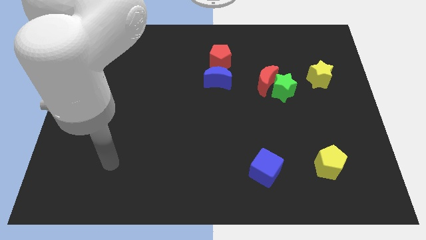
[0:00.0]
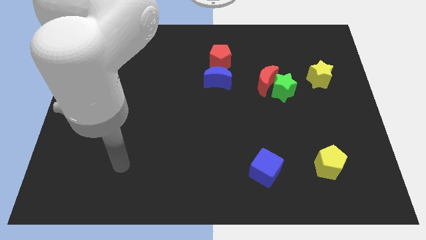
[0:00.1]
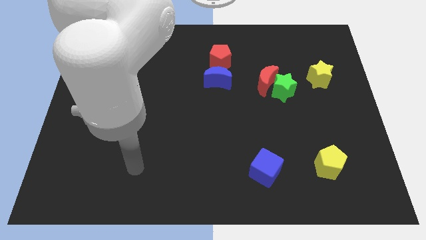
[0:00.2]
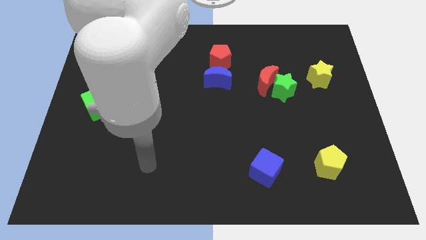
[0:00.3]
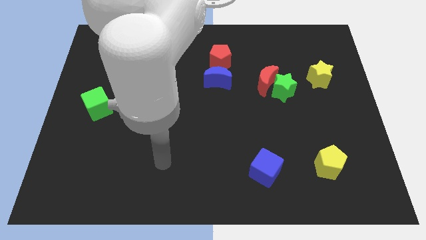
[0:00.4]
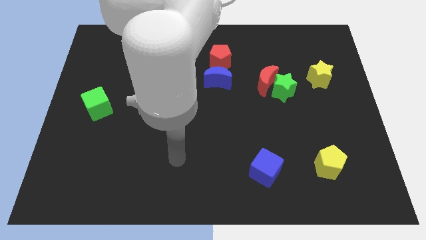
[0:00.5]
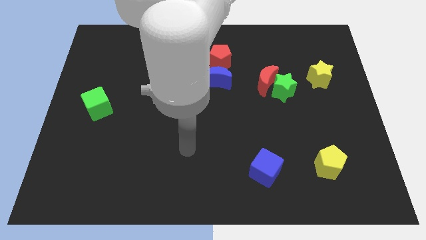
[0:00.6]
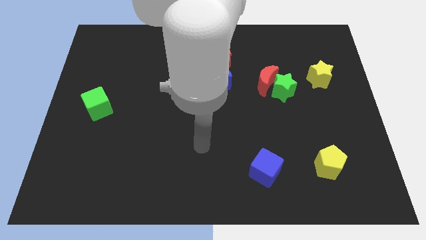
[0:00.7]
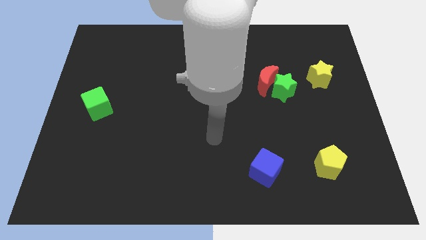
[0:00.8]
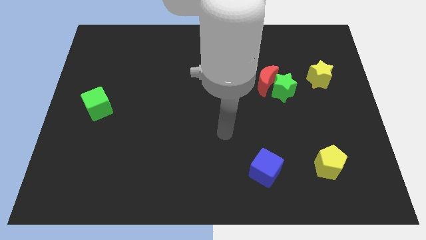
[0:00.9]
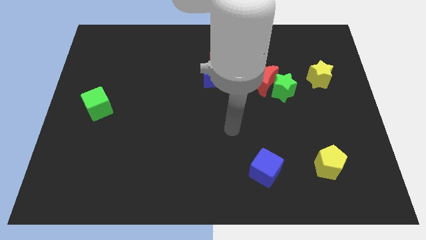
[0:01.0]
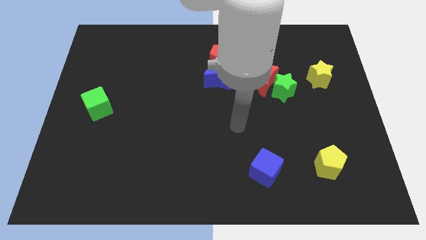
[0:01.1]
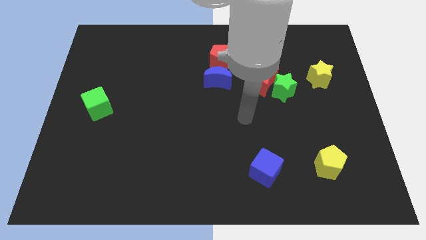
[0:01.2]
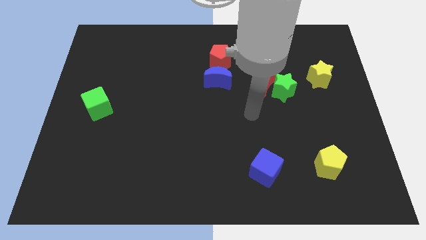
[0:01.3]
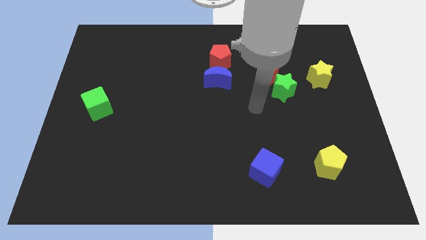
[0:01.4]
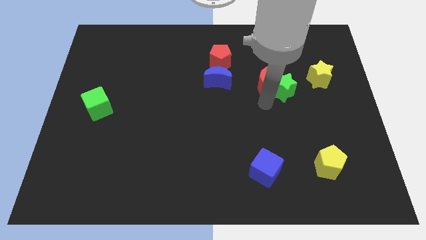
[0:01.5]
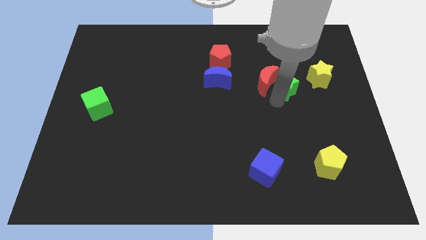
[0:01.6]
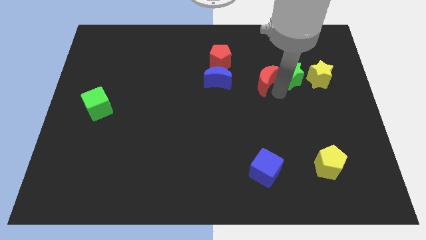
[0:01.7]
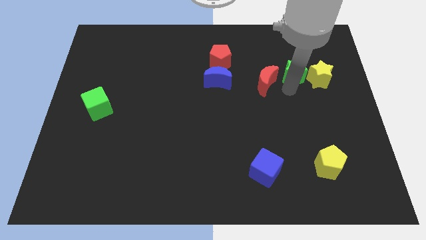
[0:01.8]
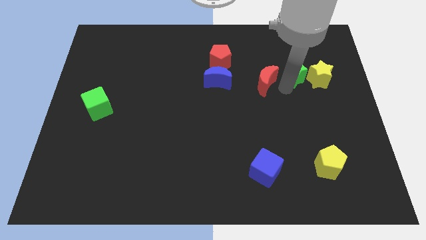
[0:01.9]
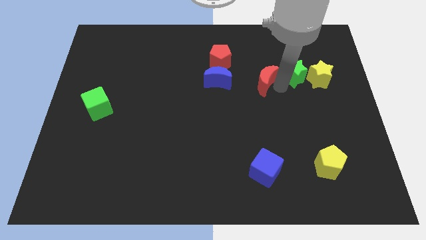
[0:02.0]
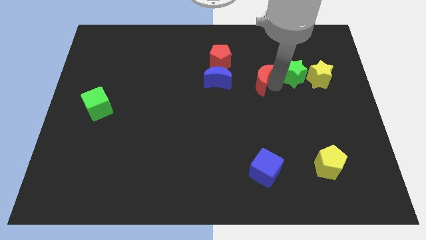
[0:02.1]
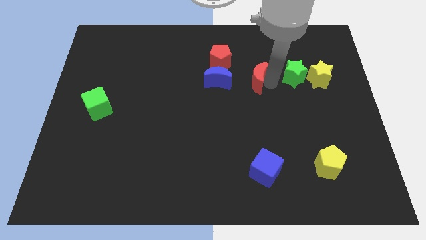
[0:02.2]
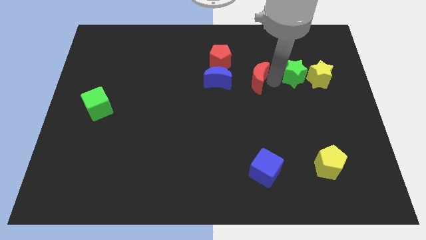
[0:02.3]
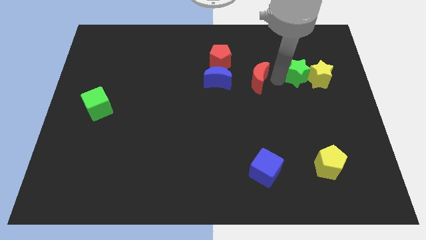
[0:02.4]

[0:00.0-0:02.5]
move the red moon away from the green star

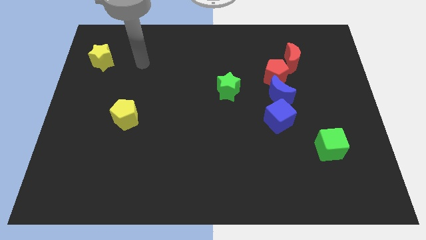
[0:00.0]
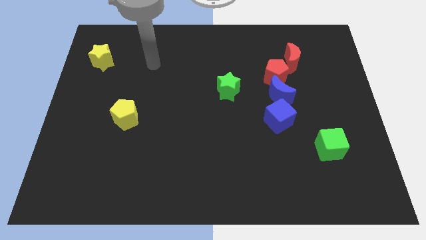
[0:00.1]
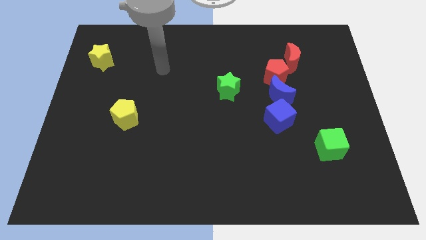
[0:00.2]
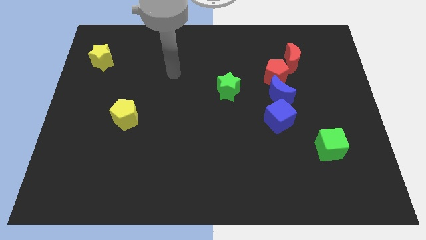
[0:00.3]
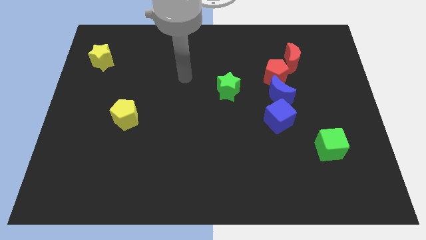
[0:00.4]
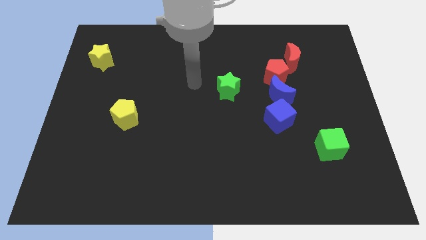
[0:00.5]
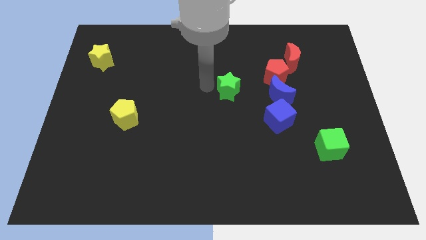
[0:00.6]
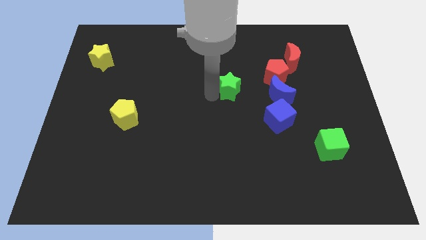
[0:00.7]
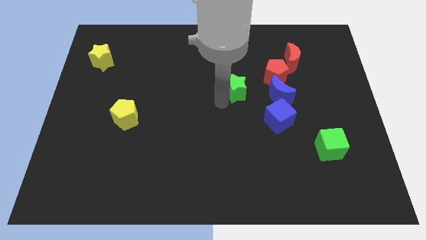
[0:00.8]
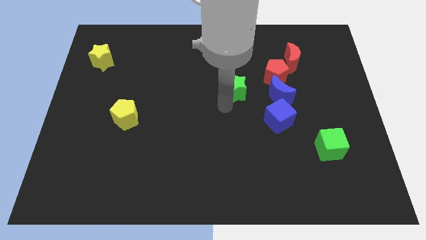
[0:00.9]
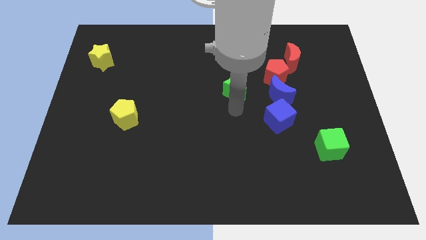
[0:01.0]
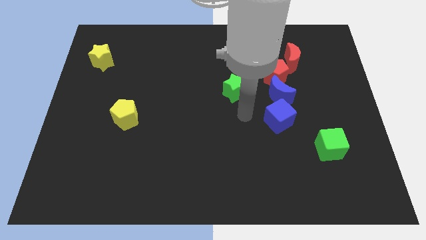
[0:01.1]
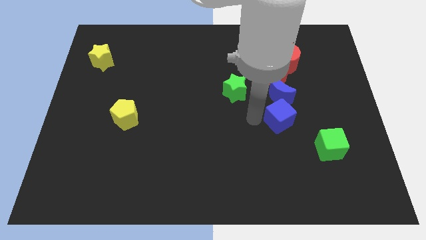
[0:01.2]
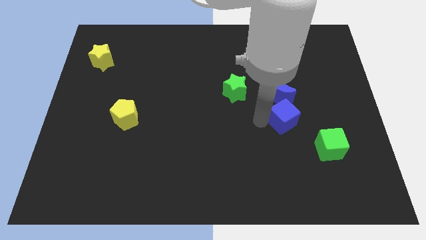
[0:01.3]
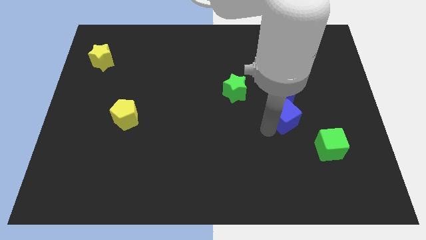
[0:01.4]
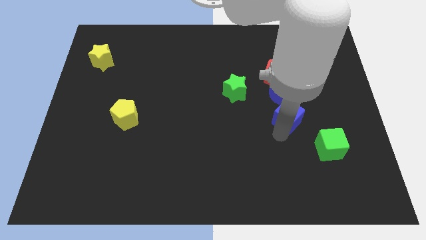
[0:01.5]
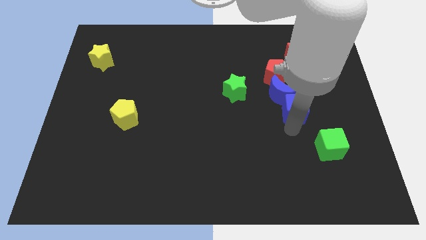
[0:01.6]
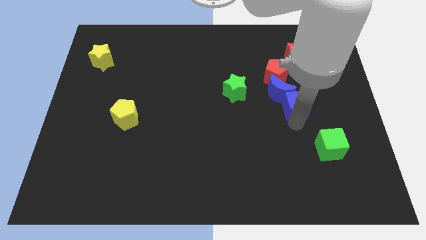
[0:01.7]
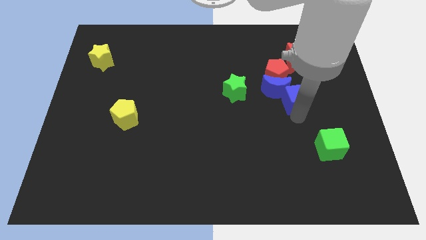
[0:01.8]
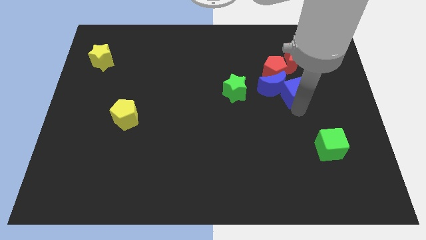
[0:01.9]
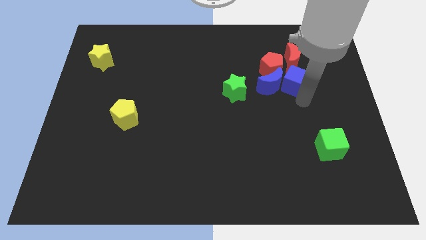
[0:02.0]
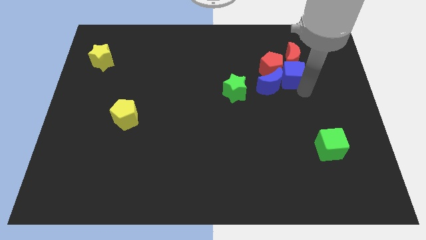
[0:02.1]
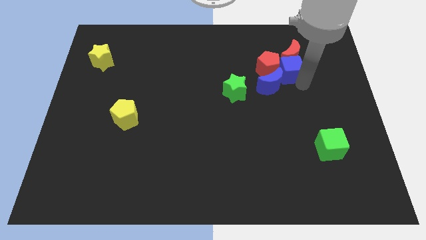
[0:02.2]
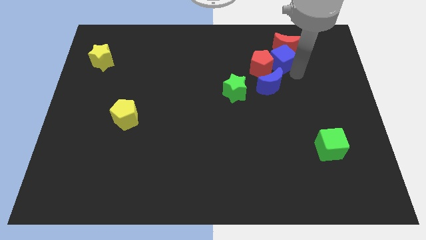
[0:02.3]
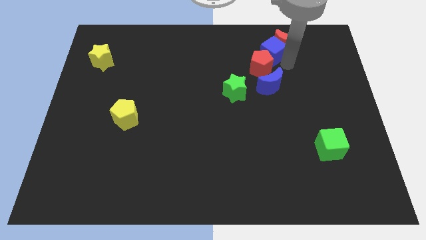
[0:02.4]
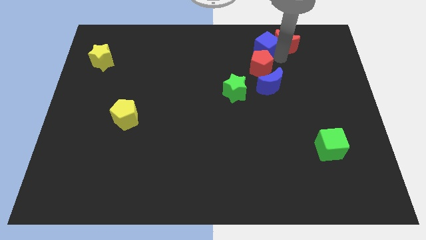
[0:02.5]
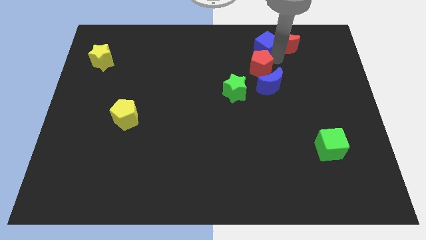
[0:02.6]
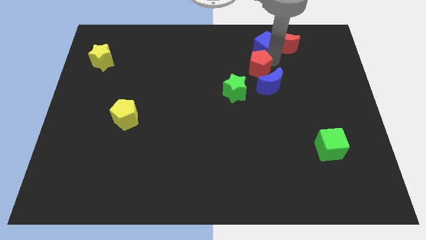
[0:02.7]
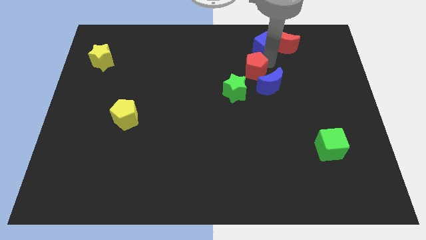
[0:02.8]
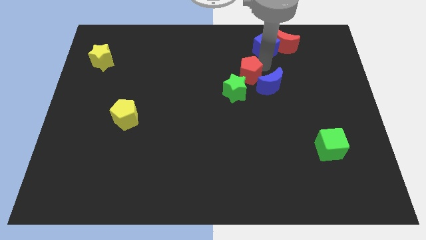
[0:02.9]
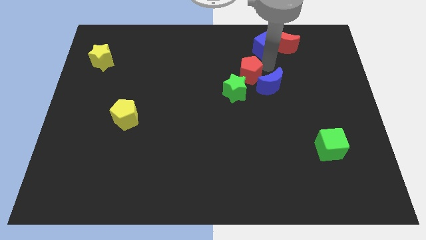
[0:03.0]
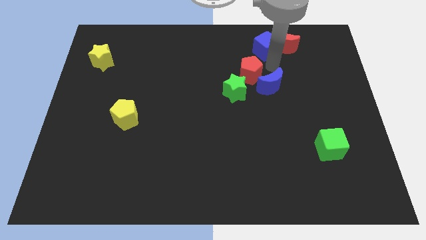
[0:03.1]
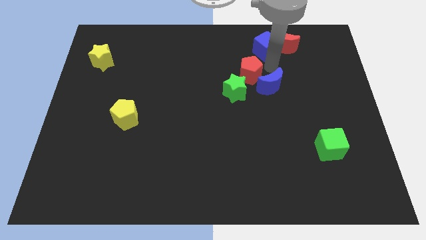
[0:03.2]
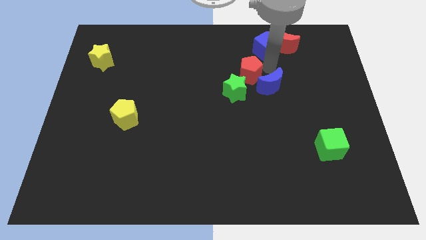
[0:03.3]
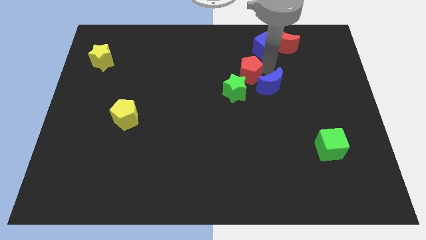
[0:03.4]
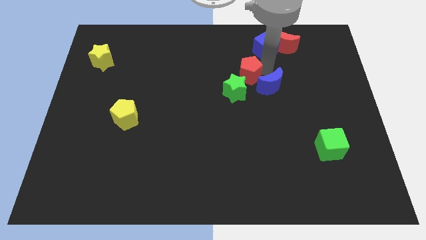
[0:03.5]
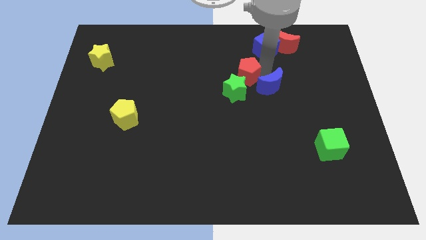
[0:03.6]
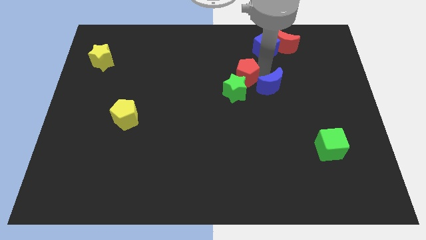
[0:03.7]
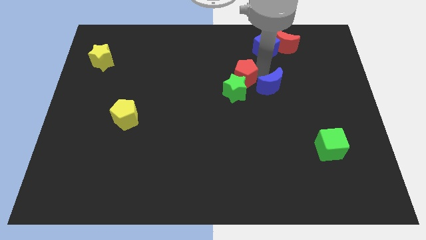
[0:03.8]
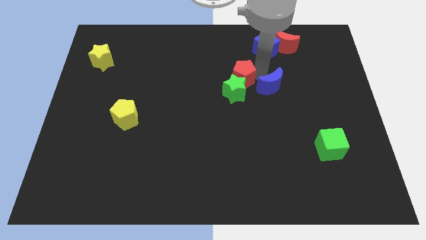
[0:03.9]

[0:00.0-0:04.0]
move the red pentagon away from the blue moon and red moon

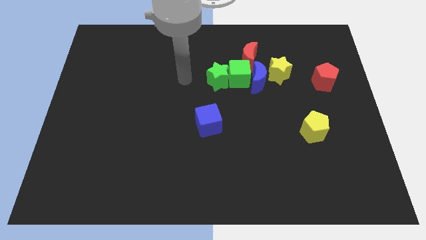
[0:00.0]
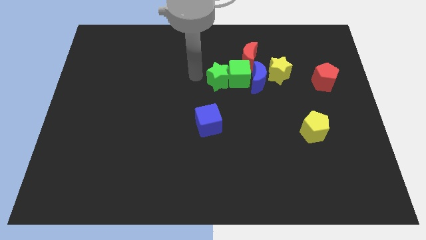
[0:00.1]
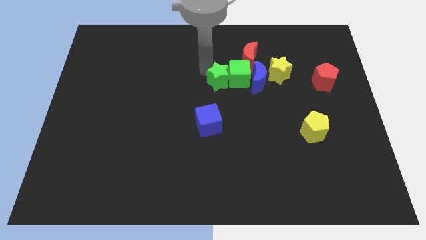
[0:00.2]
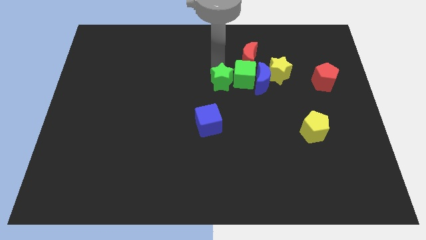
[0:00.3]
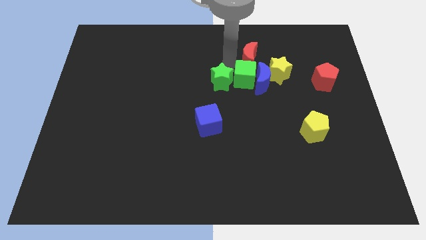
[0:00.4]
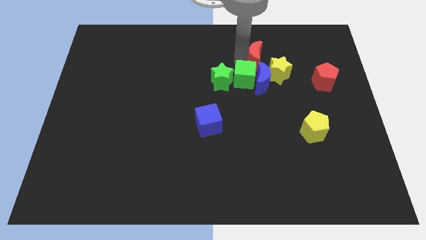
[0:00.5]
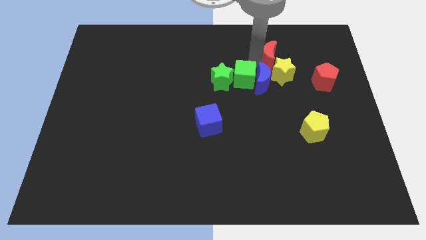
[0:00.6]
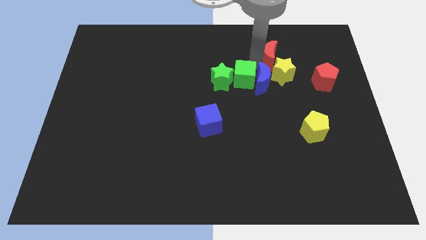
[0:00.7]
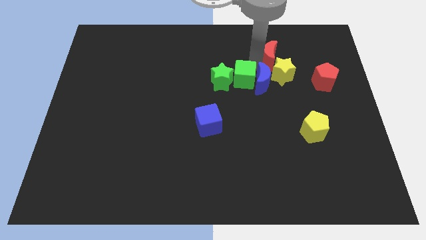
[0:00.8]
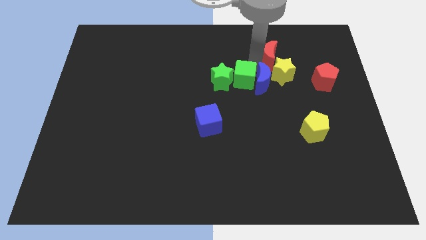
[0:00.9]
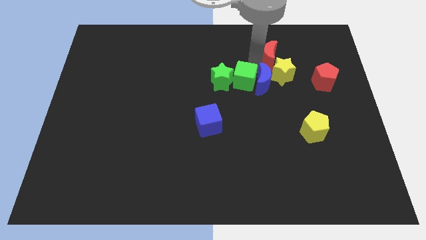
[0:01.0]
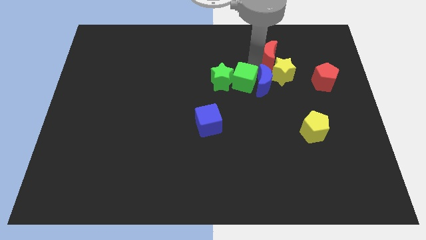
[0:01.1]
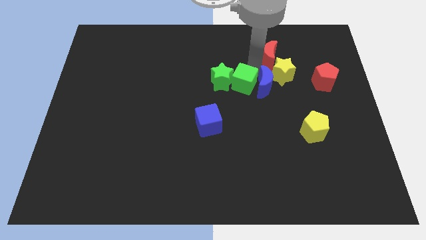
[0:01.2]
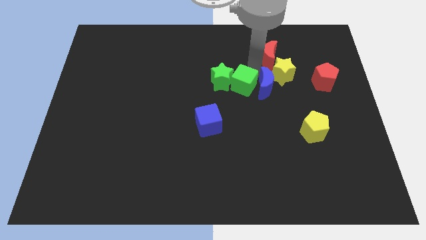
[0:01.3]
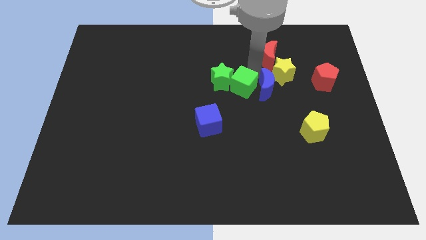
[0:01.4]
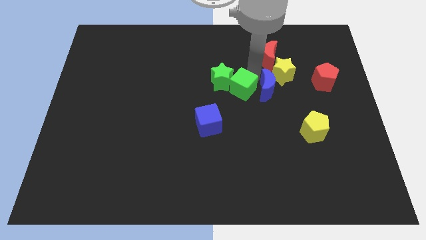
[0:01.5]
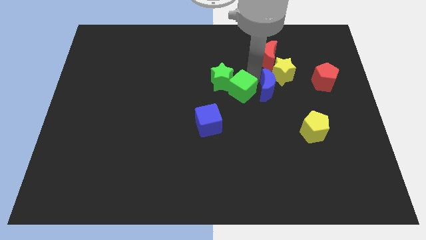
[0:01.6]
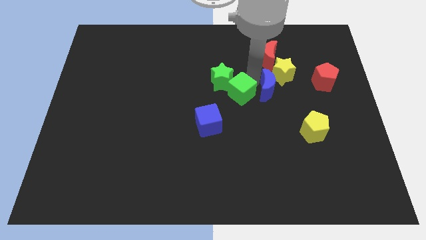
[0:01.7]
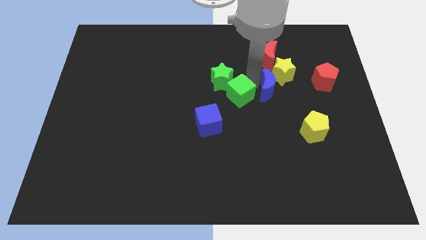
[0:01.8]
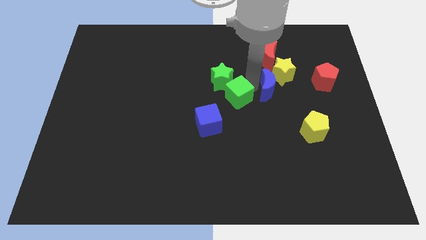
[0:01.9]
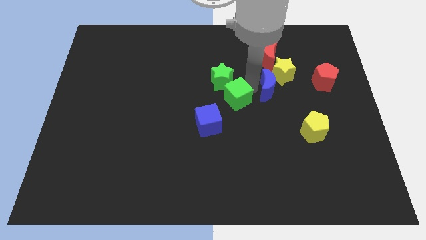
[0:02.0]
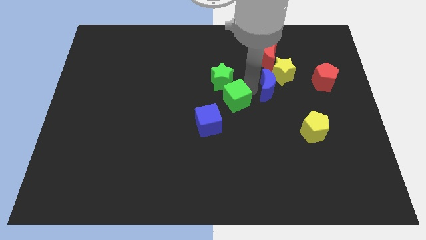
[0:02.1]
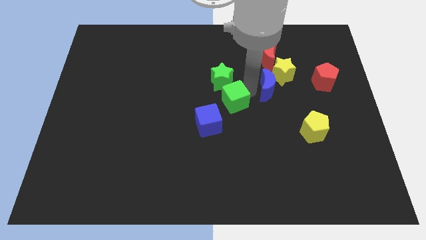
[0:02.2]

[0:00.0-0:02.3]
move the green cube away from the clump

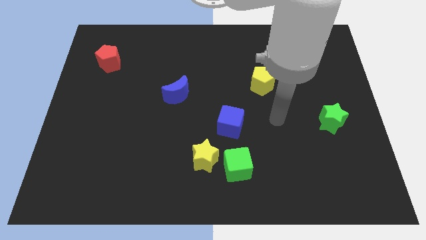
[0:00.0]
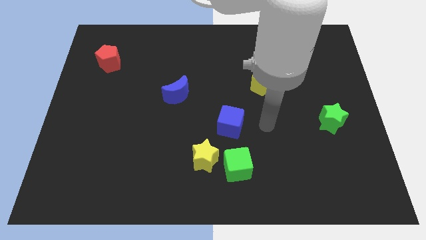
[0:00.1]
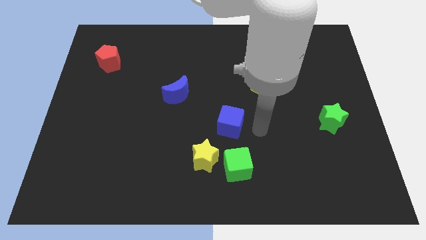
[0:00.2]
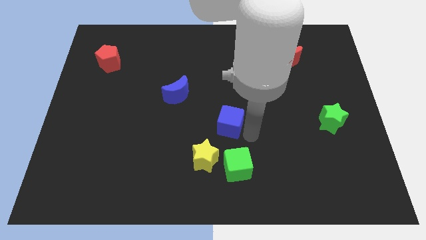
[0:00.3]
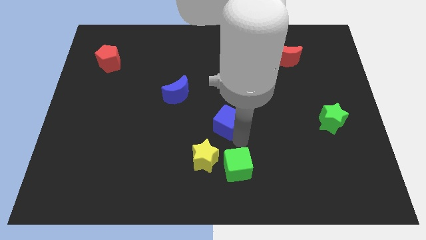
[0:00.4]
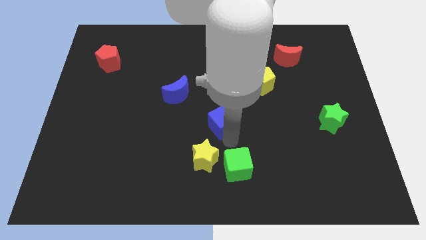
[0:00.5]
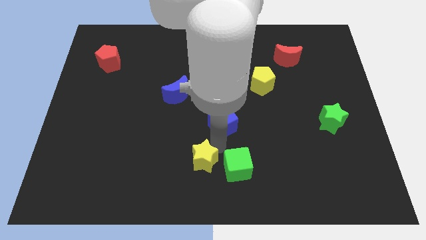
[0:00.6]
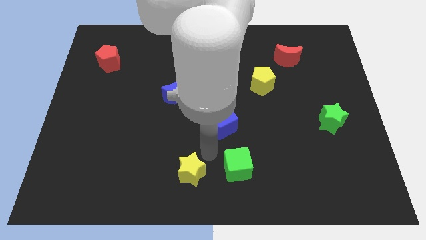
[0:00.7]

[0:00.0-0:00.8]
separate the green cube from the yellow star
